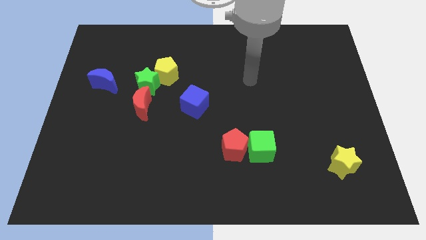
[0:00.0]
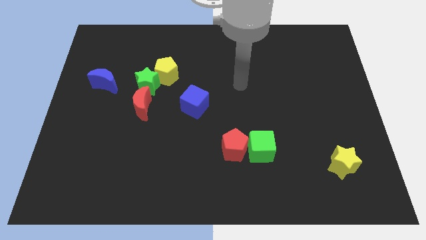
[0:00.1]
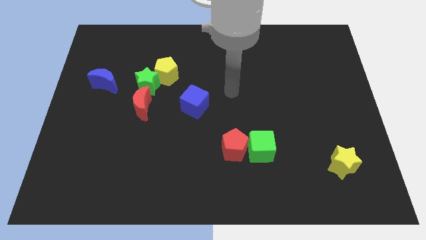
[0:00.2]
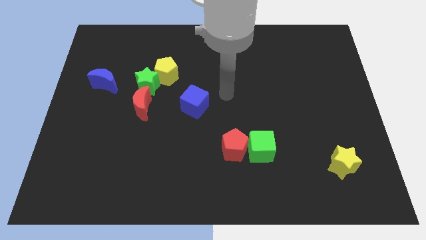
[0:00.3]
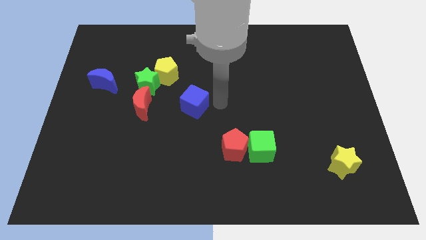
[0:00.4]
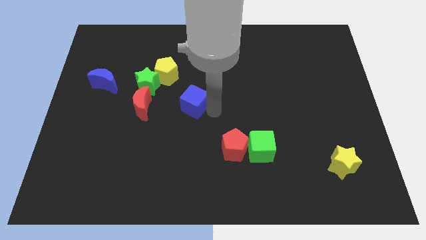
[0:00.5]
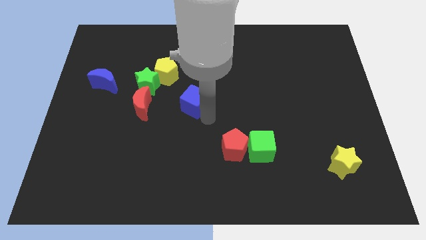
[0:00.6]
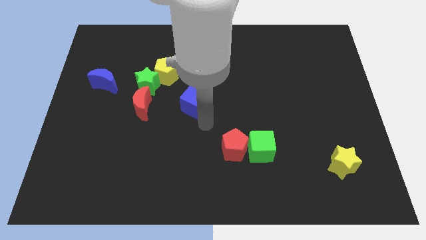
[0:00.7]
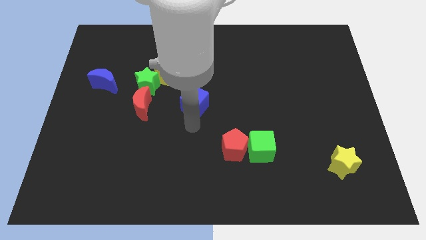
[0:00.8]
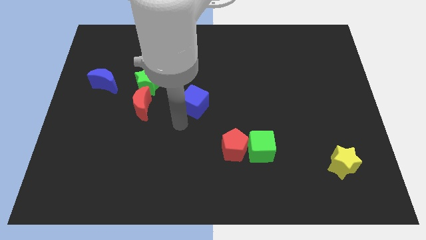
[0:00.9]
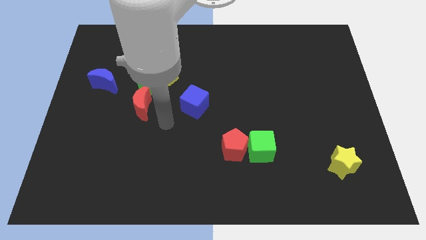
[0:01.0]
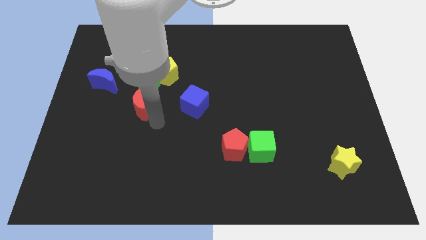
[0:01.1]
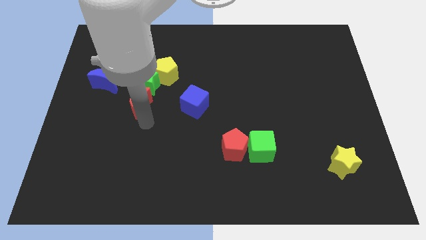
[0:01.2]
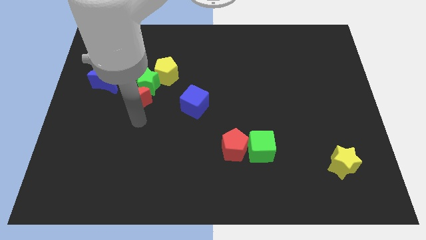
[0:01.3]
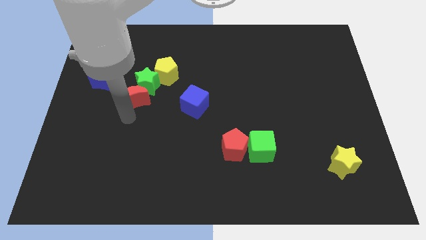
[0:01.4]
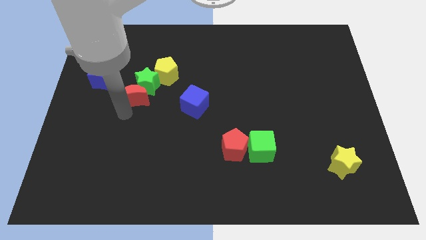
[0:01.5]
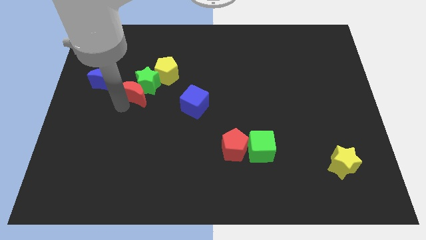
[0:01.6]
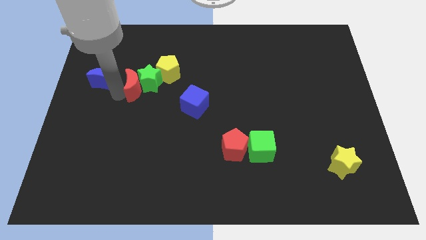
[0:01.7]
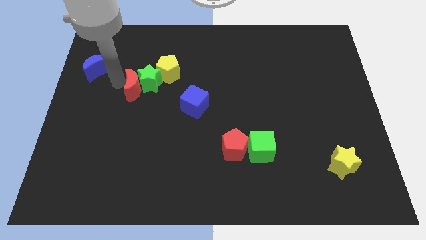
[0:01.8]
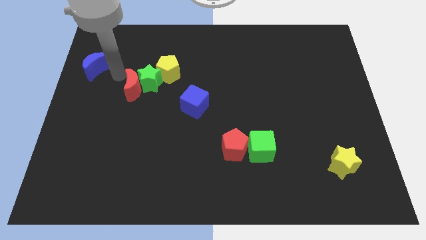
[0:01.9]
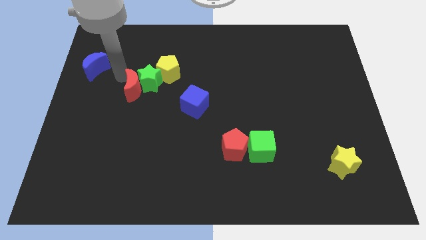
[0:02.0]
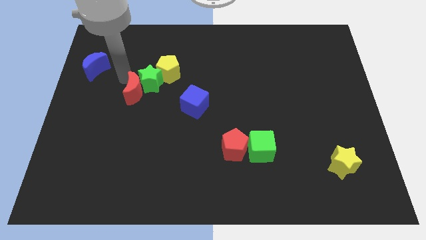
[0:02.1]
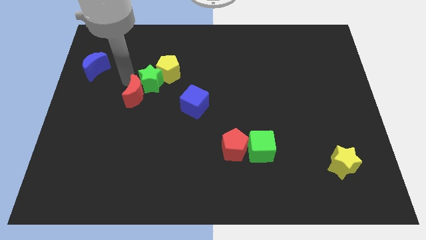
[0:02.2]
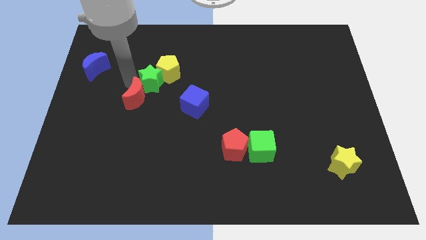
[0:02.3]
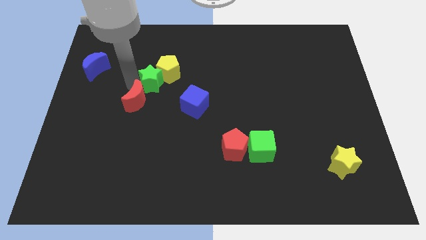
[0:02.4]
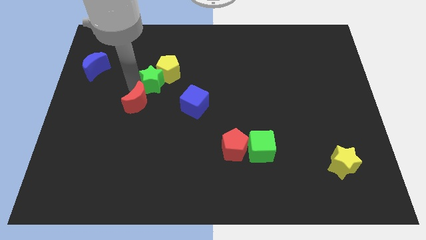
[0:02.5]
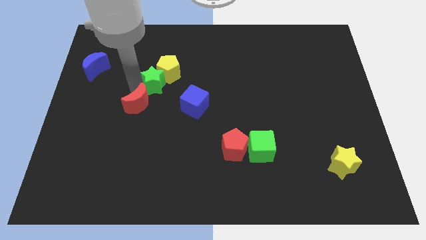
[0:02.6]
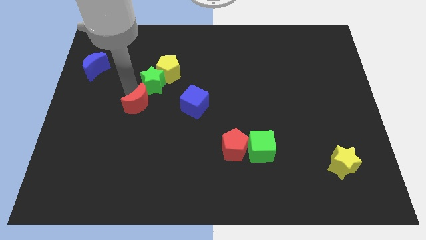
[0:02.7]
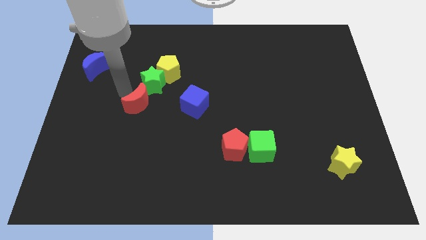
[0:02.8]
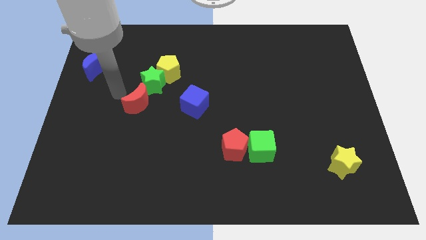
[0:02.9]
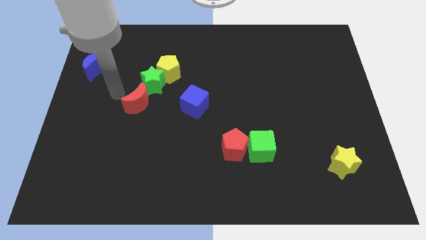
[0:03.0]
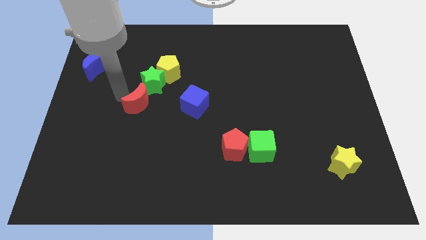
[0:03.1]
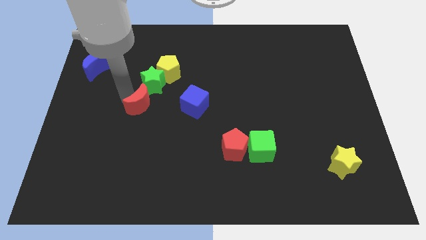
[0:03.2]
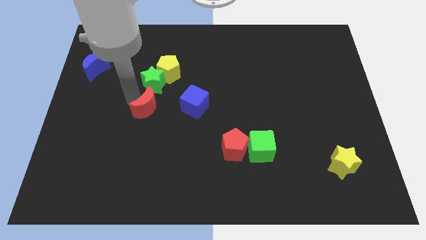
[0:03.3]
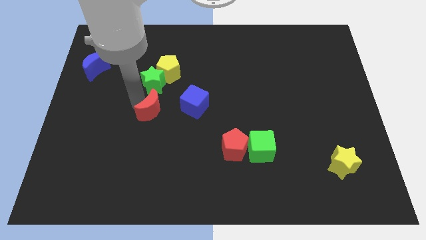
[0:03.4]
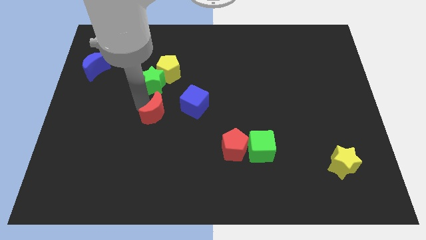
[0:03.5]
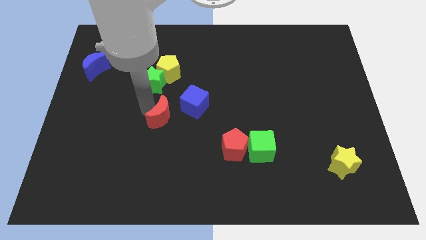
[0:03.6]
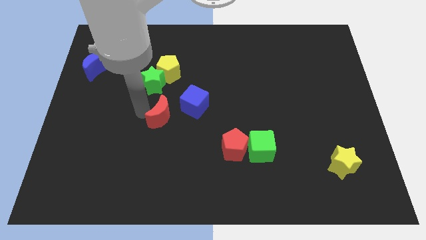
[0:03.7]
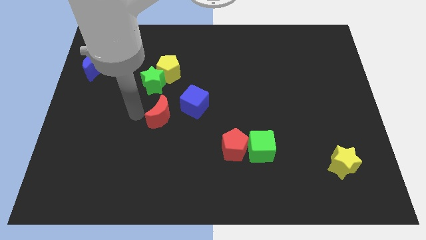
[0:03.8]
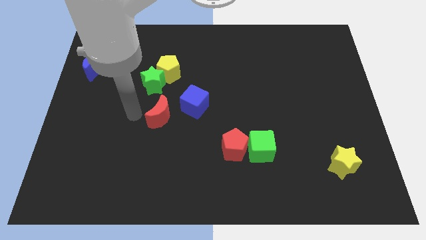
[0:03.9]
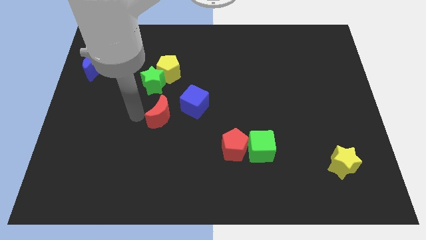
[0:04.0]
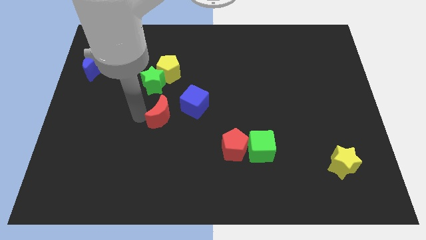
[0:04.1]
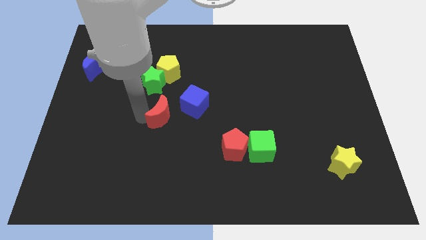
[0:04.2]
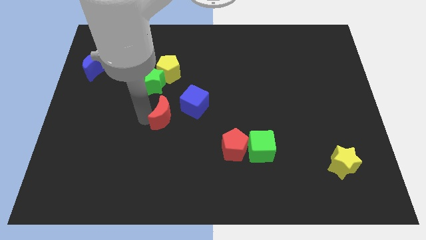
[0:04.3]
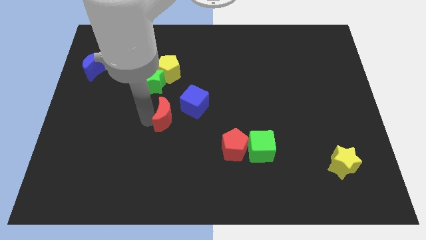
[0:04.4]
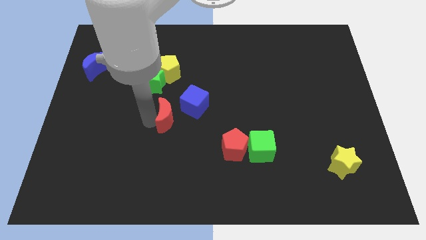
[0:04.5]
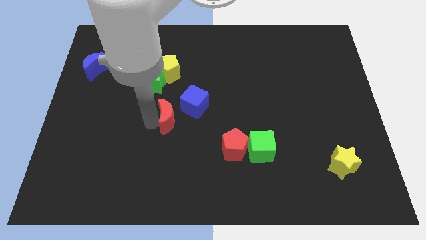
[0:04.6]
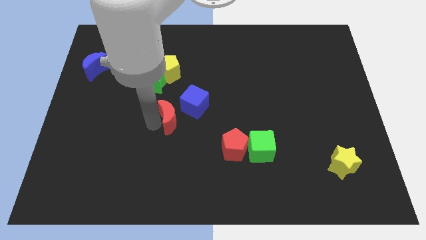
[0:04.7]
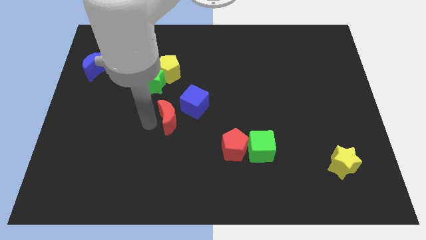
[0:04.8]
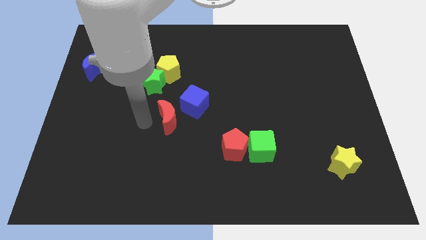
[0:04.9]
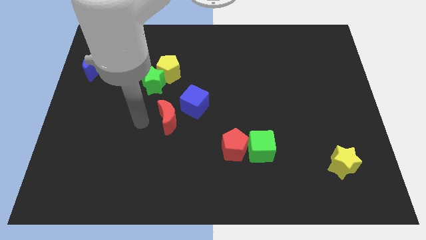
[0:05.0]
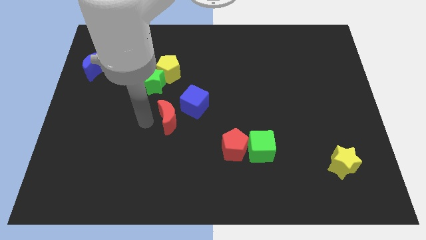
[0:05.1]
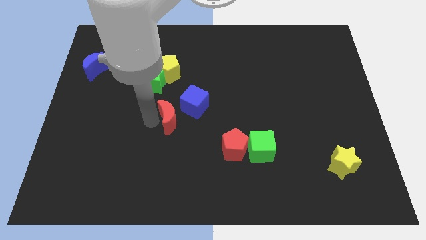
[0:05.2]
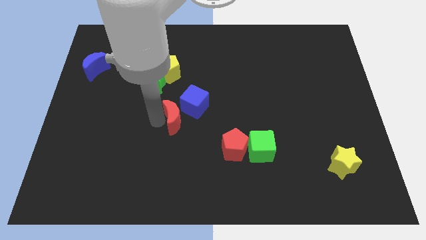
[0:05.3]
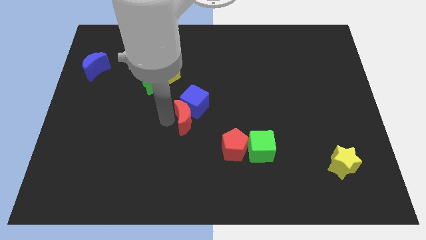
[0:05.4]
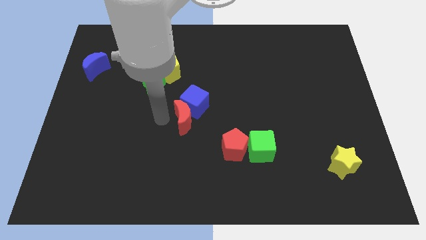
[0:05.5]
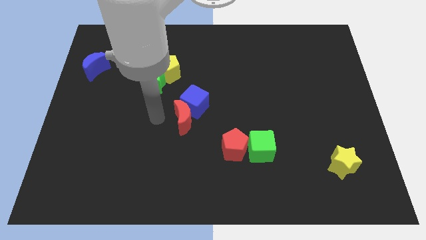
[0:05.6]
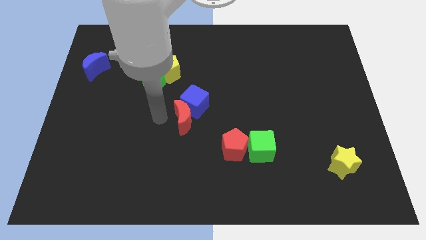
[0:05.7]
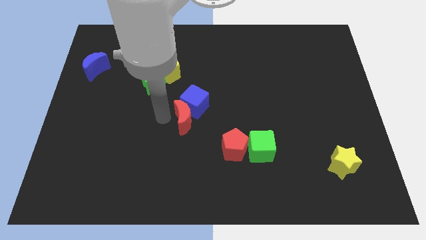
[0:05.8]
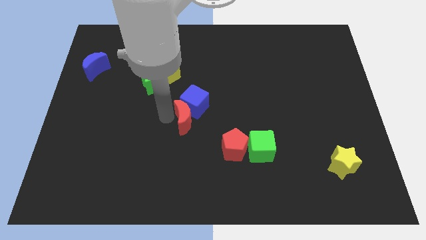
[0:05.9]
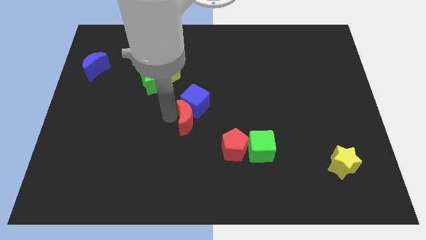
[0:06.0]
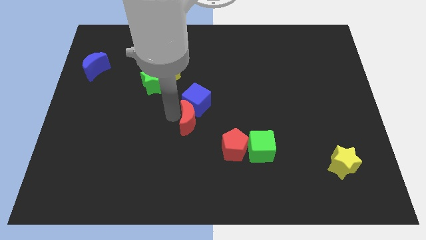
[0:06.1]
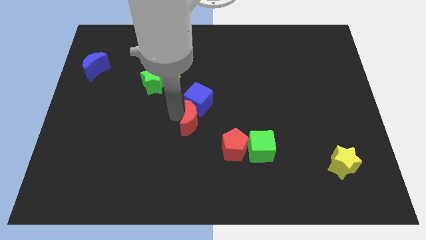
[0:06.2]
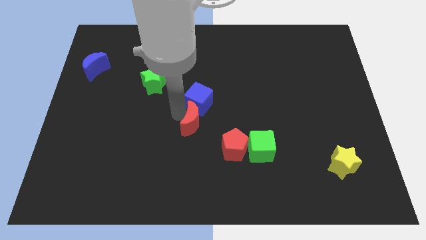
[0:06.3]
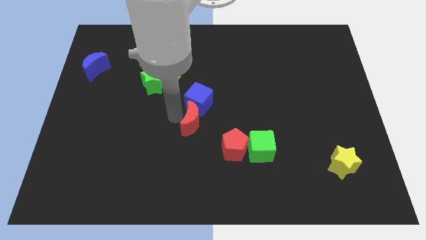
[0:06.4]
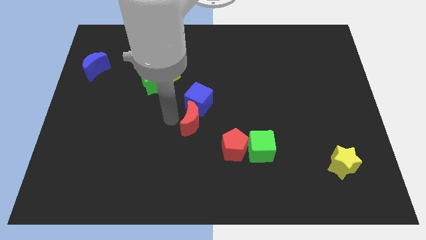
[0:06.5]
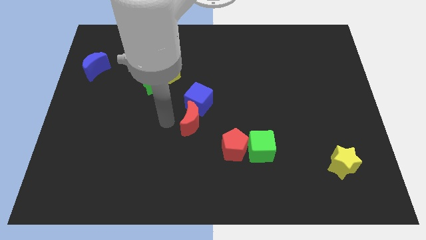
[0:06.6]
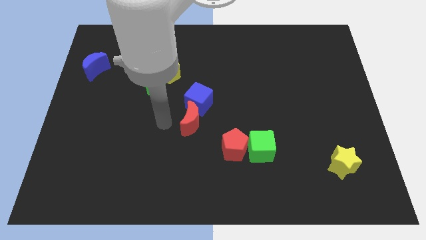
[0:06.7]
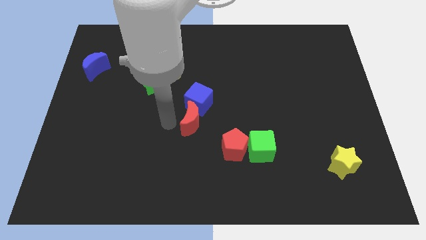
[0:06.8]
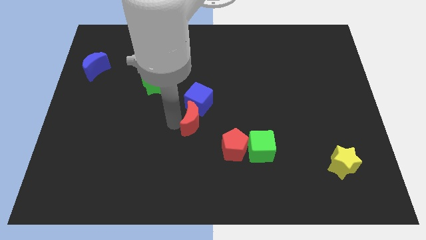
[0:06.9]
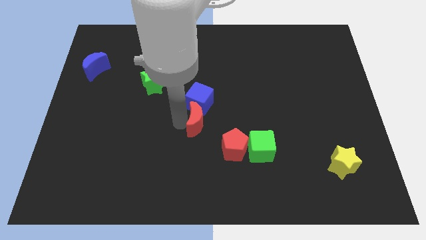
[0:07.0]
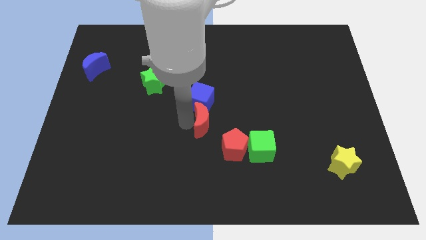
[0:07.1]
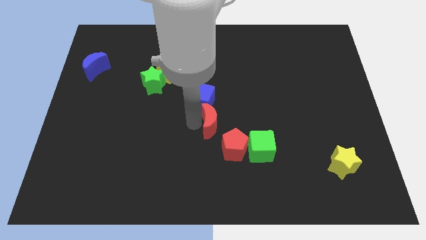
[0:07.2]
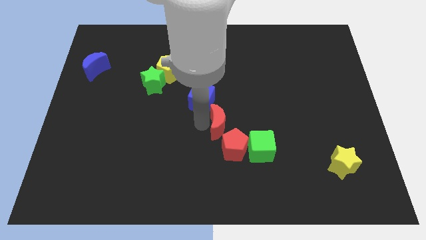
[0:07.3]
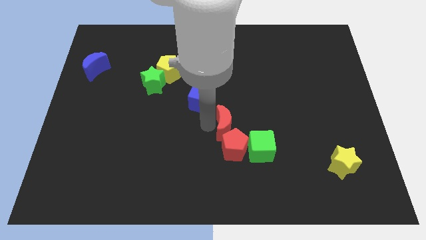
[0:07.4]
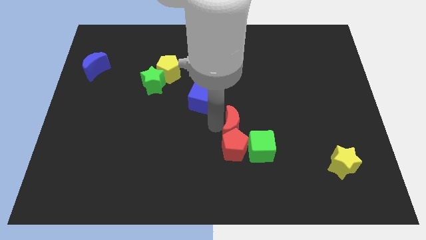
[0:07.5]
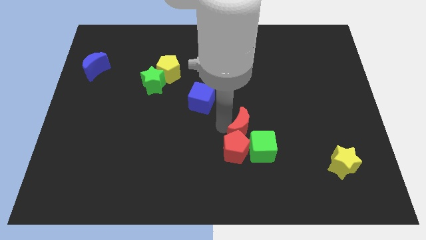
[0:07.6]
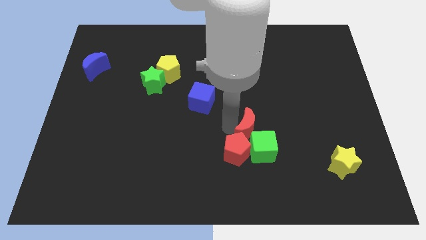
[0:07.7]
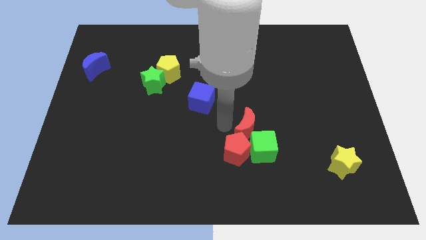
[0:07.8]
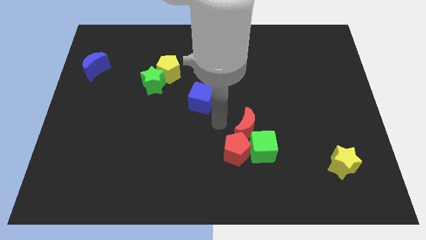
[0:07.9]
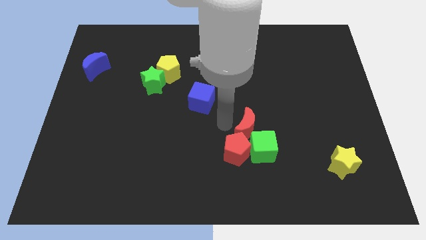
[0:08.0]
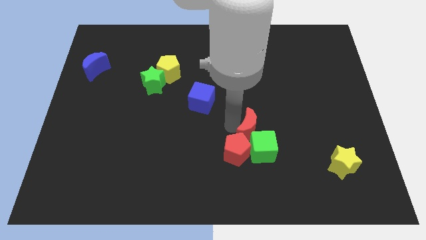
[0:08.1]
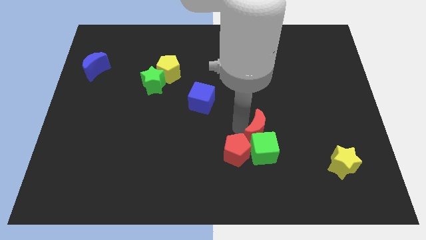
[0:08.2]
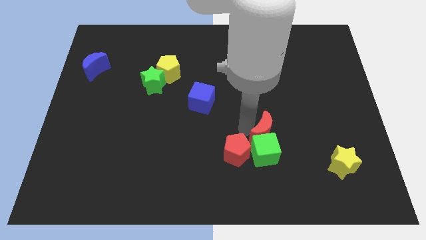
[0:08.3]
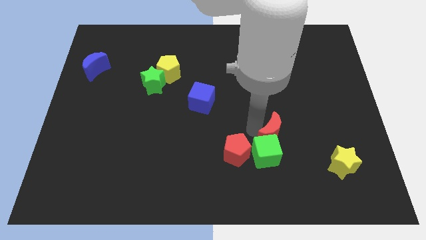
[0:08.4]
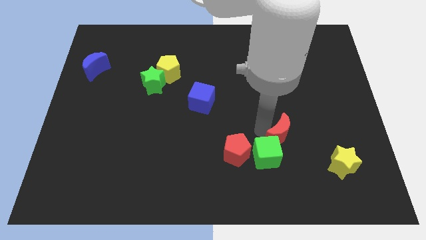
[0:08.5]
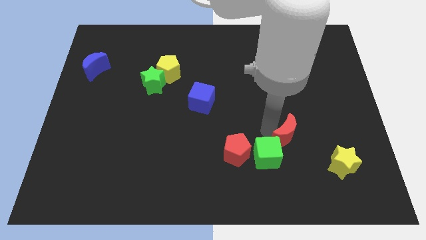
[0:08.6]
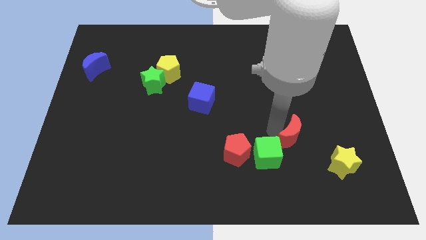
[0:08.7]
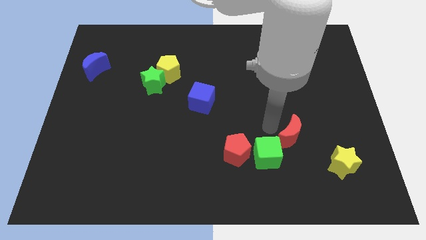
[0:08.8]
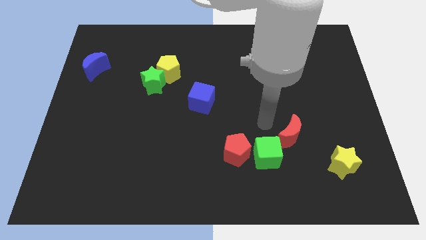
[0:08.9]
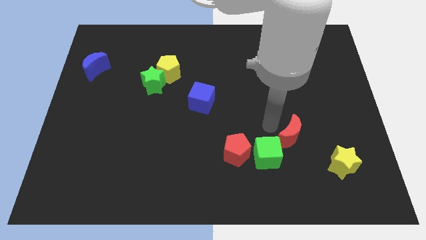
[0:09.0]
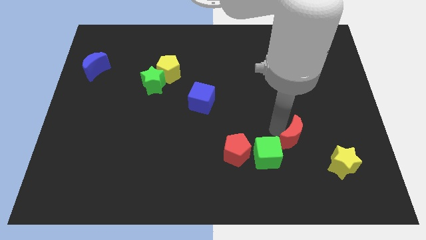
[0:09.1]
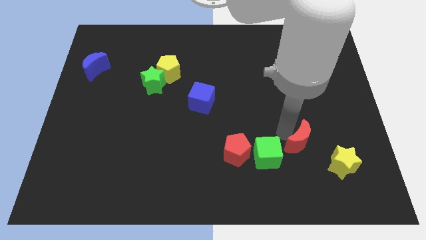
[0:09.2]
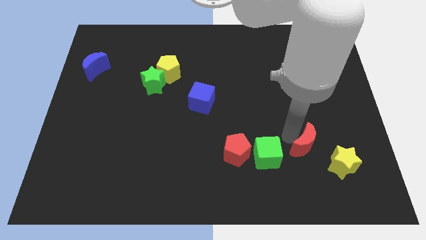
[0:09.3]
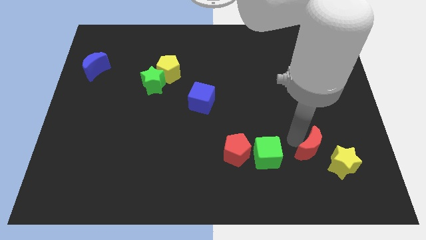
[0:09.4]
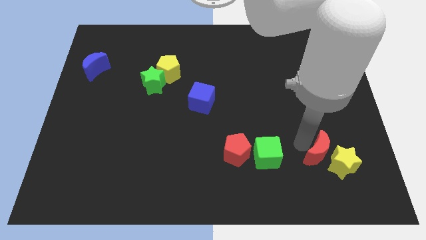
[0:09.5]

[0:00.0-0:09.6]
put the red moon to the yellow star
